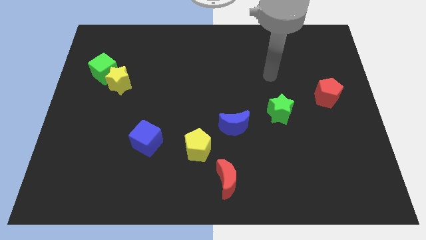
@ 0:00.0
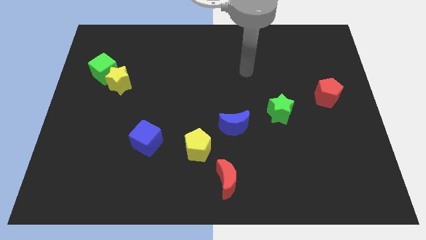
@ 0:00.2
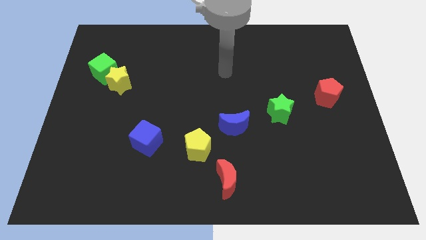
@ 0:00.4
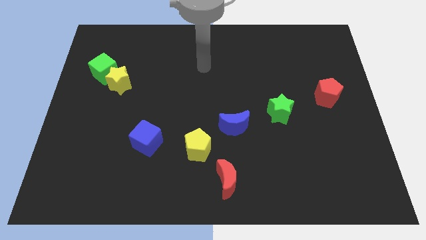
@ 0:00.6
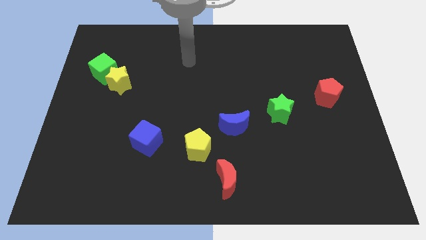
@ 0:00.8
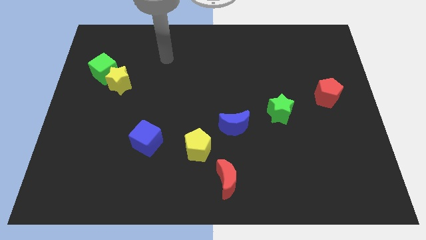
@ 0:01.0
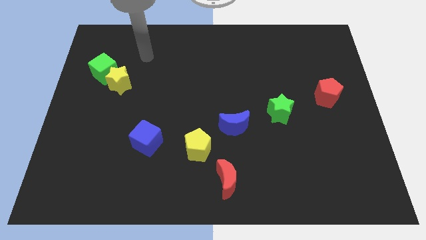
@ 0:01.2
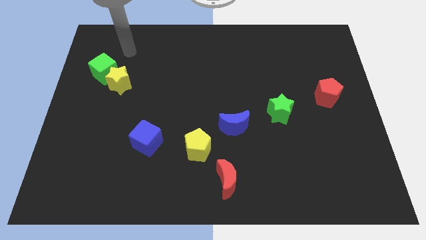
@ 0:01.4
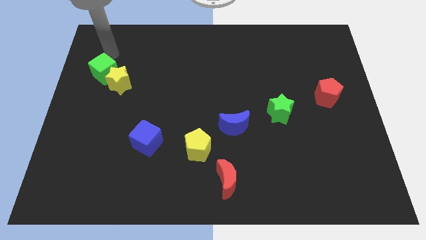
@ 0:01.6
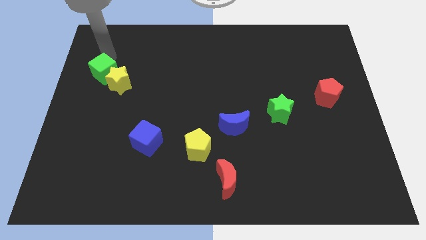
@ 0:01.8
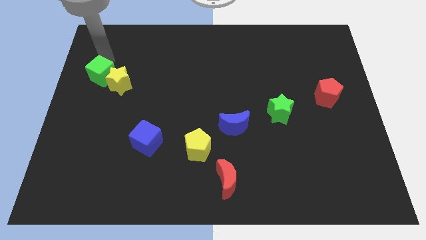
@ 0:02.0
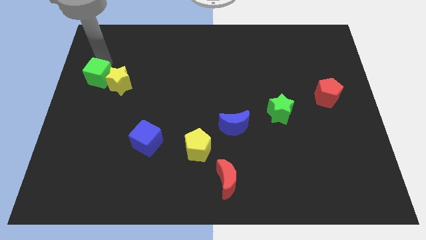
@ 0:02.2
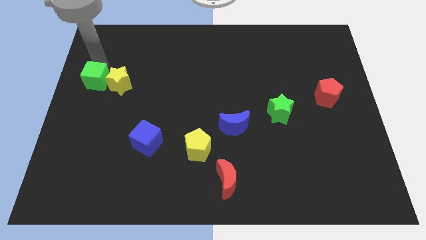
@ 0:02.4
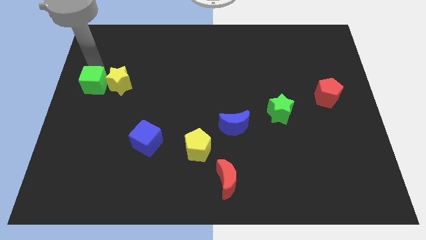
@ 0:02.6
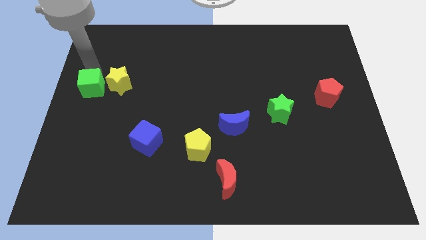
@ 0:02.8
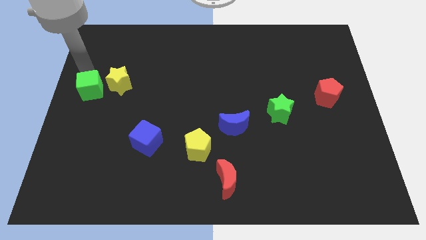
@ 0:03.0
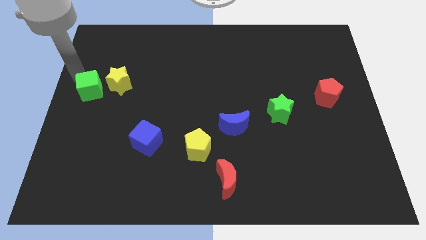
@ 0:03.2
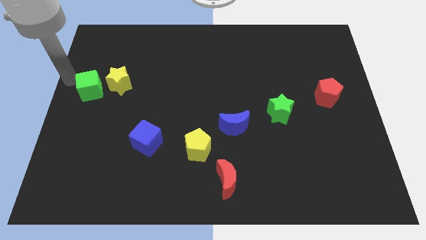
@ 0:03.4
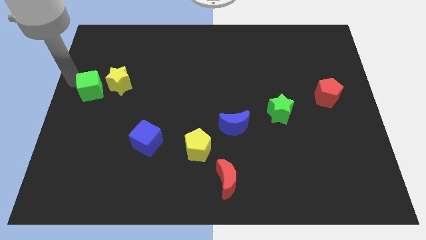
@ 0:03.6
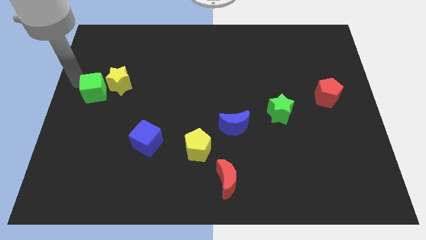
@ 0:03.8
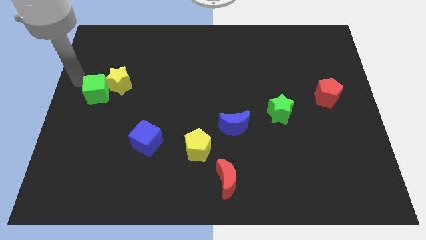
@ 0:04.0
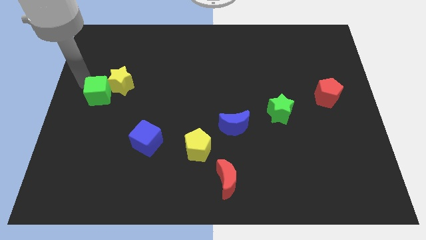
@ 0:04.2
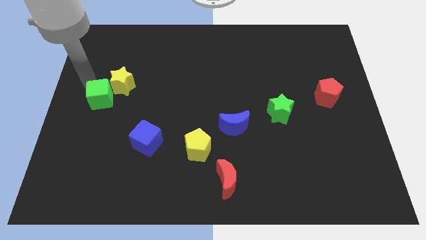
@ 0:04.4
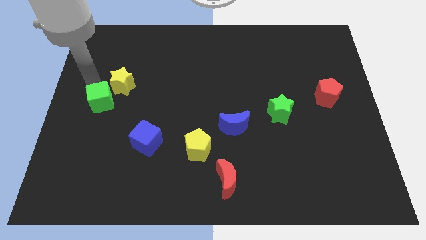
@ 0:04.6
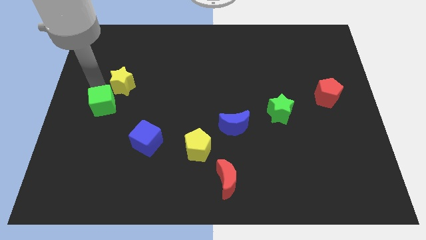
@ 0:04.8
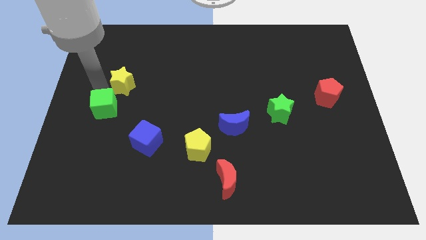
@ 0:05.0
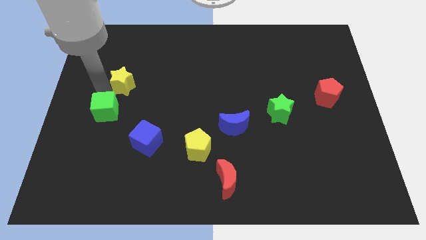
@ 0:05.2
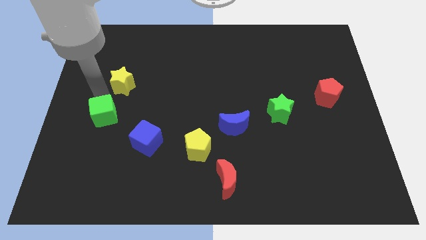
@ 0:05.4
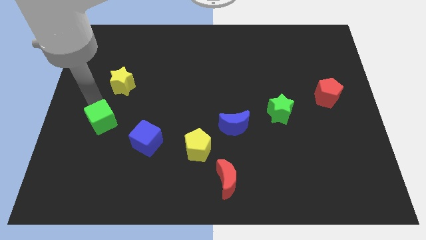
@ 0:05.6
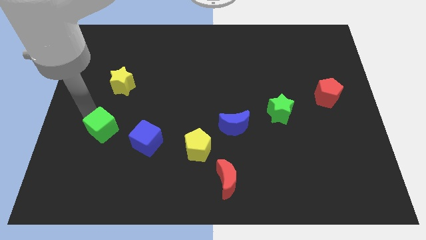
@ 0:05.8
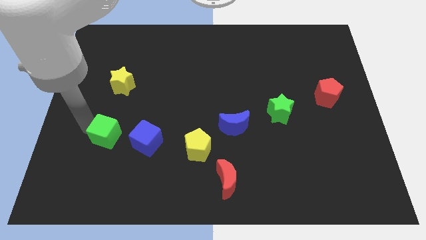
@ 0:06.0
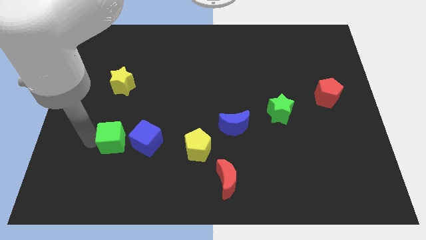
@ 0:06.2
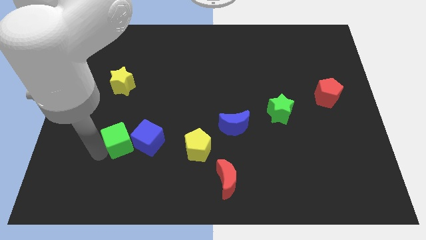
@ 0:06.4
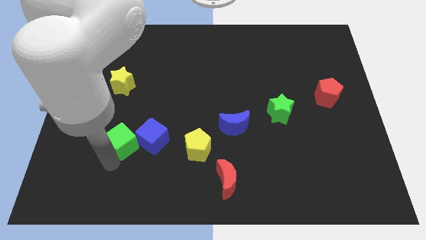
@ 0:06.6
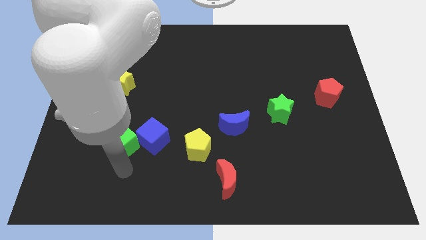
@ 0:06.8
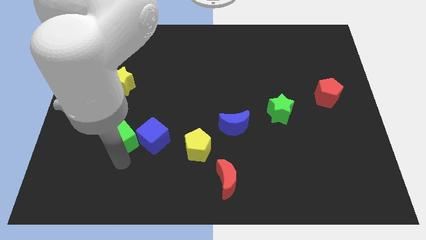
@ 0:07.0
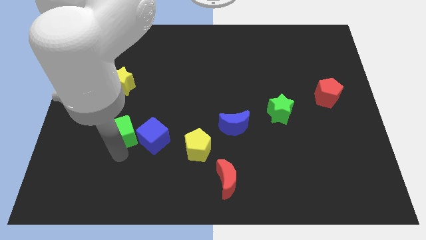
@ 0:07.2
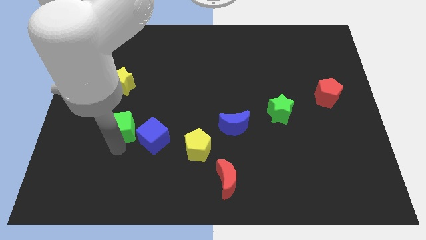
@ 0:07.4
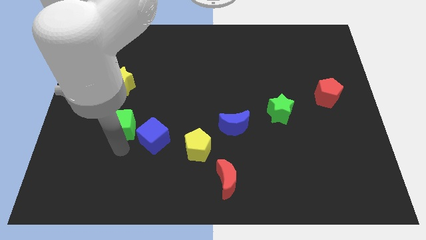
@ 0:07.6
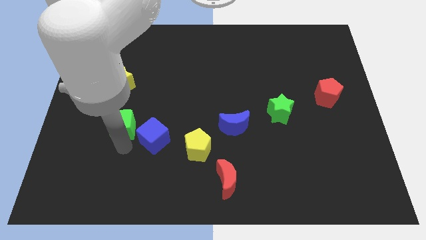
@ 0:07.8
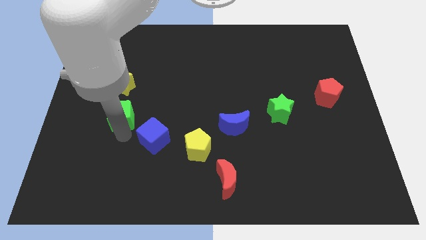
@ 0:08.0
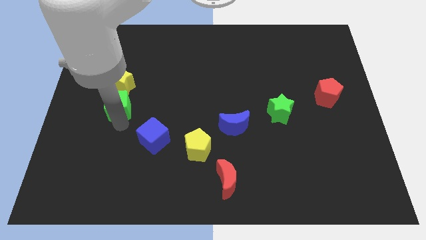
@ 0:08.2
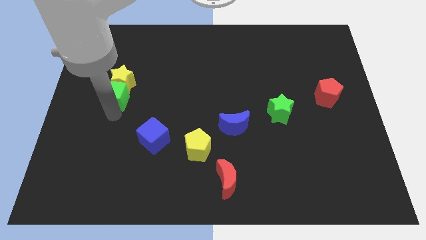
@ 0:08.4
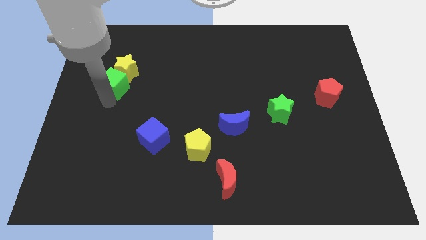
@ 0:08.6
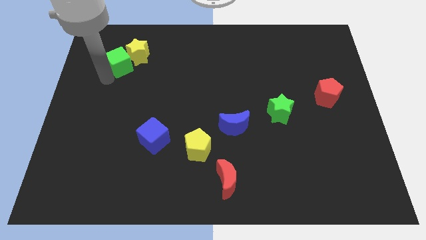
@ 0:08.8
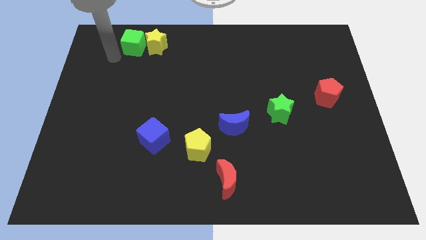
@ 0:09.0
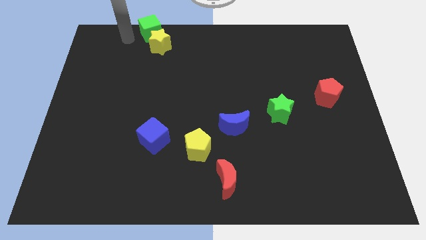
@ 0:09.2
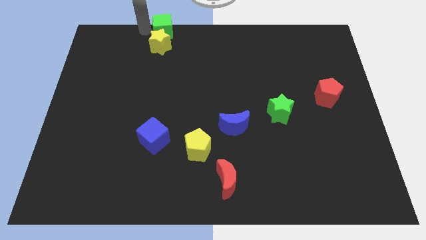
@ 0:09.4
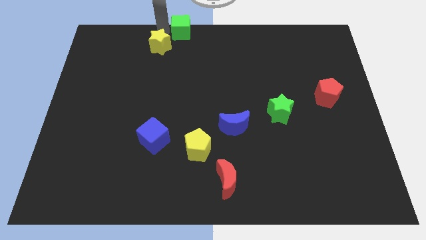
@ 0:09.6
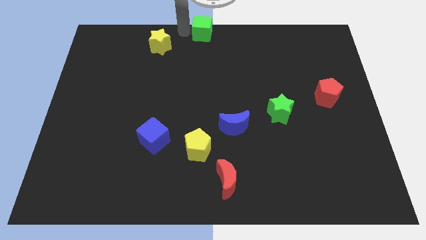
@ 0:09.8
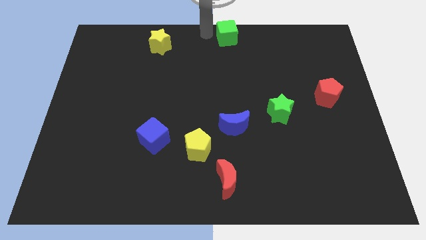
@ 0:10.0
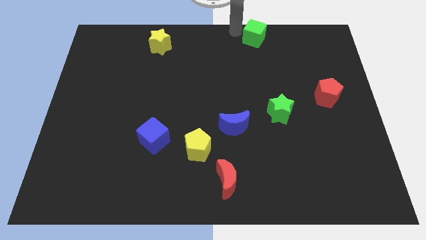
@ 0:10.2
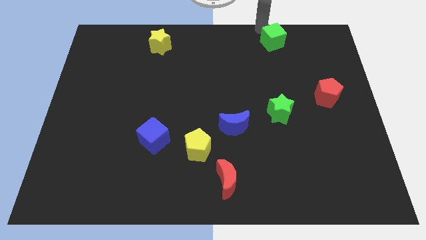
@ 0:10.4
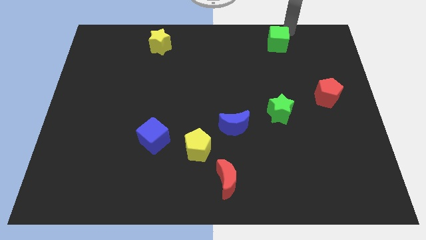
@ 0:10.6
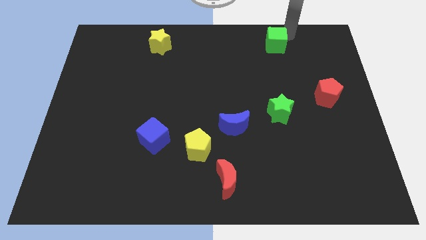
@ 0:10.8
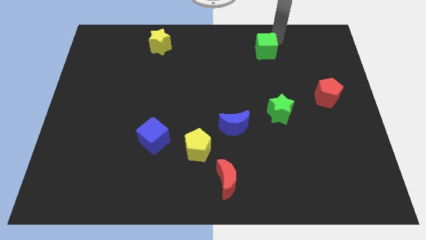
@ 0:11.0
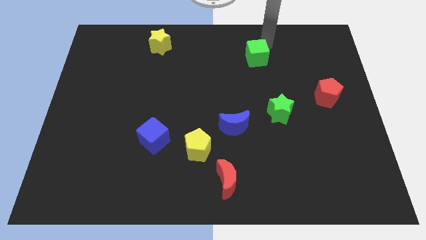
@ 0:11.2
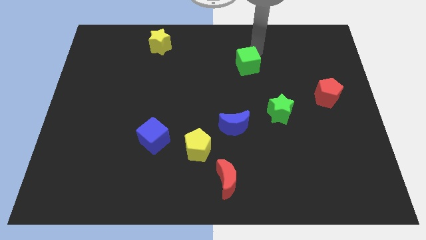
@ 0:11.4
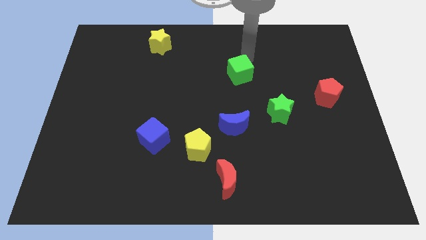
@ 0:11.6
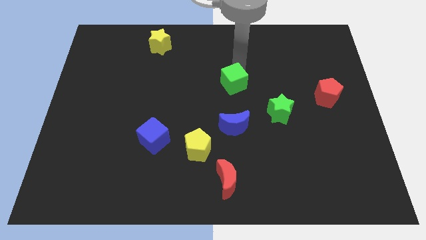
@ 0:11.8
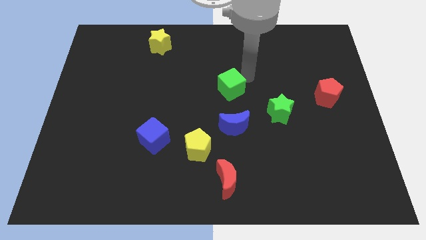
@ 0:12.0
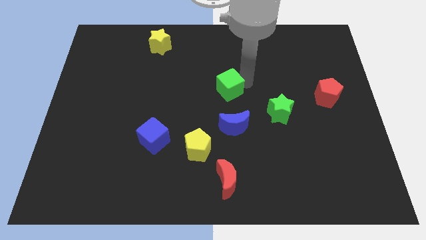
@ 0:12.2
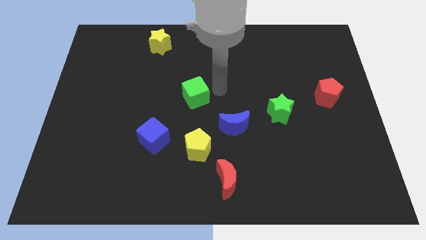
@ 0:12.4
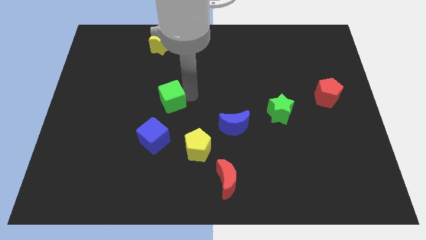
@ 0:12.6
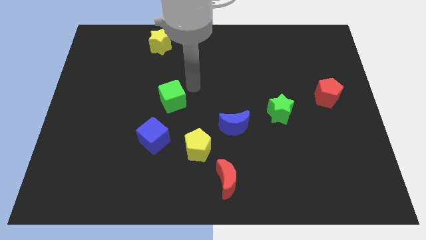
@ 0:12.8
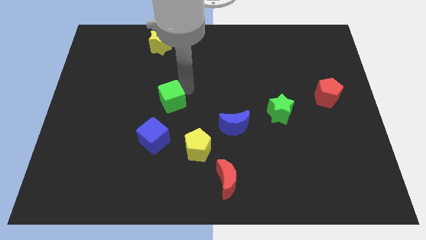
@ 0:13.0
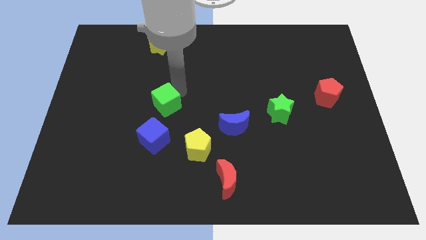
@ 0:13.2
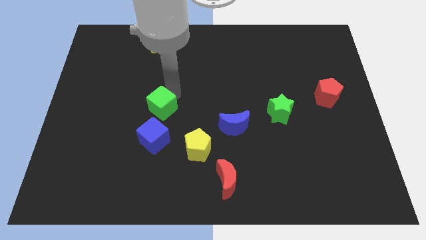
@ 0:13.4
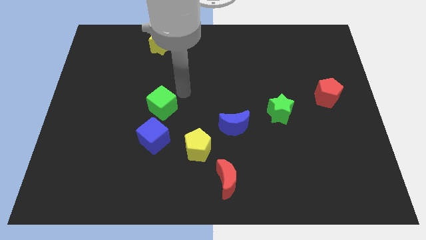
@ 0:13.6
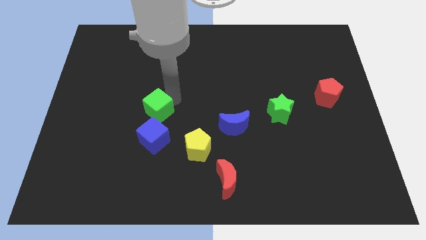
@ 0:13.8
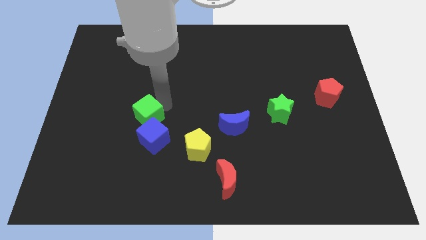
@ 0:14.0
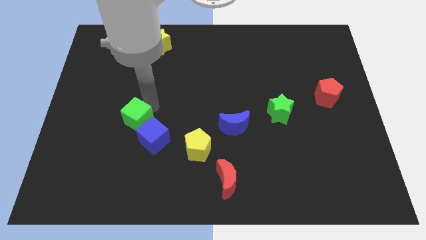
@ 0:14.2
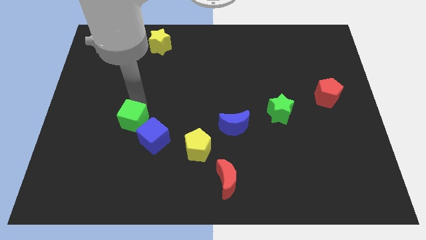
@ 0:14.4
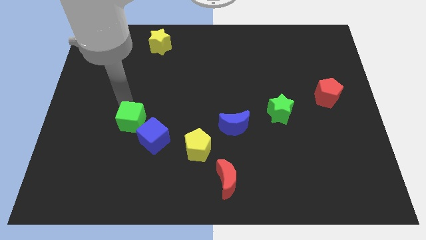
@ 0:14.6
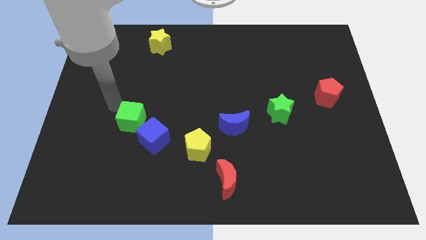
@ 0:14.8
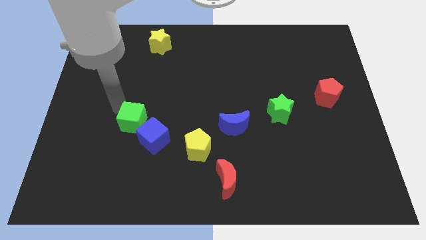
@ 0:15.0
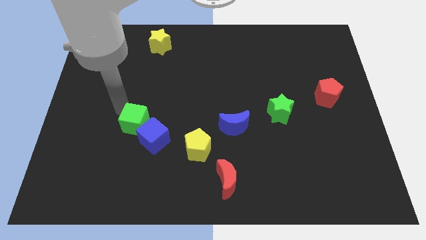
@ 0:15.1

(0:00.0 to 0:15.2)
move the green cube next to the blue cube
